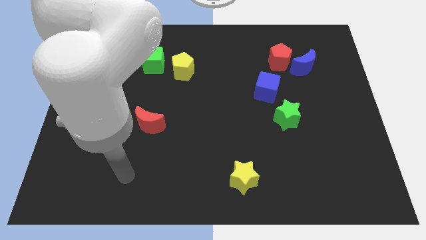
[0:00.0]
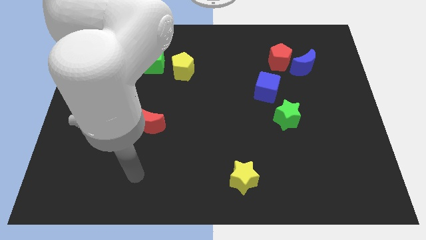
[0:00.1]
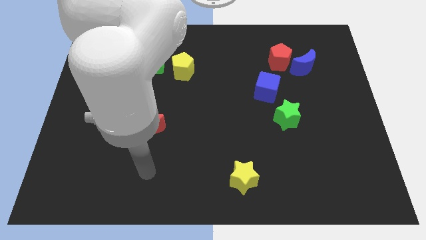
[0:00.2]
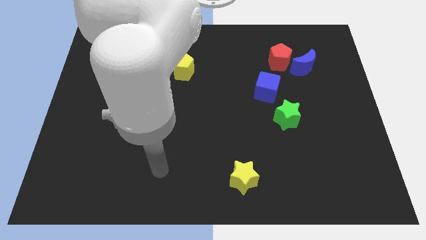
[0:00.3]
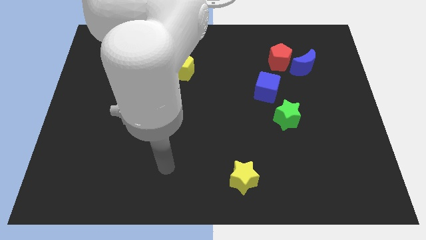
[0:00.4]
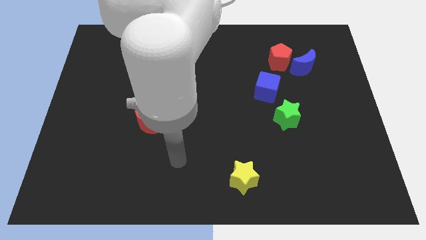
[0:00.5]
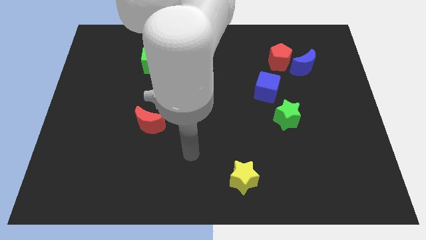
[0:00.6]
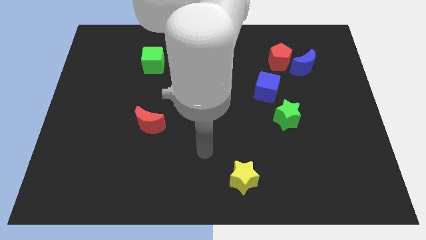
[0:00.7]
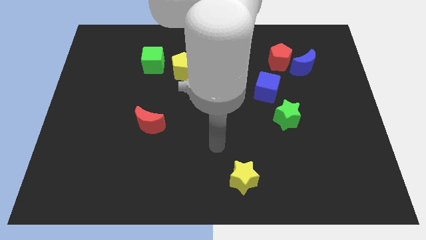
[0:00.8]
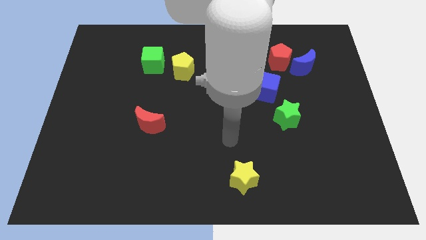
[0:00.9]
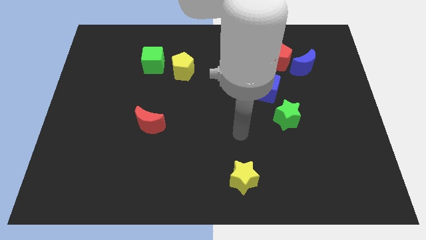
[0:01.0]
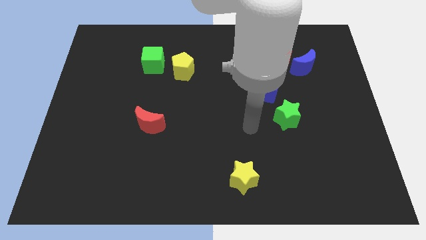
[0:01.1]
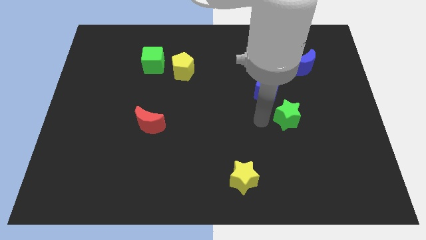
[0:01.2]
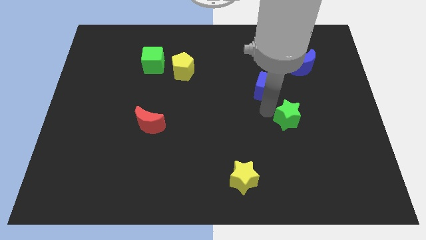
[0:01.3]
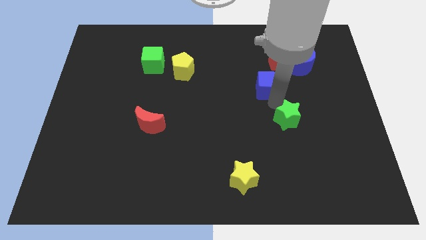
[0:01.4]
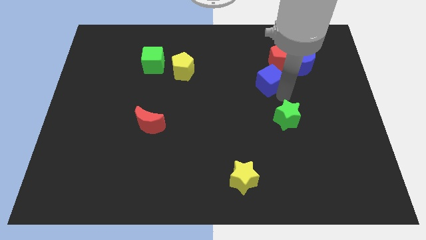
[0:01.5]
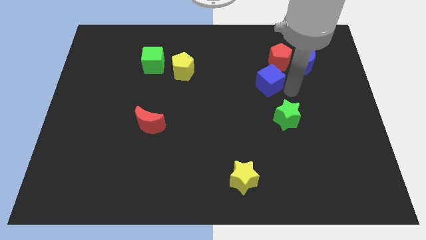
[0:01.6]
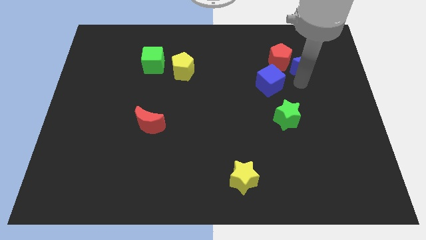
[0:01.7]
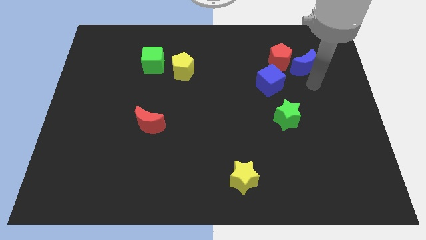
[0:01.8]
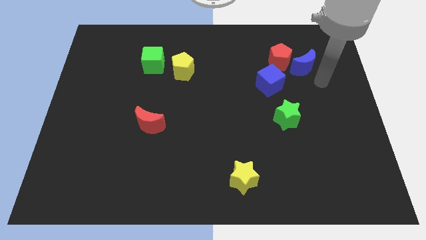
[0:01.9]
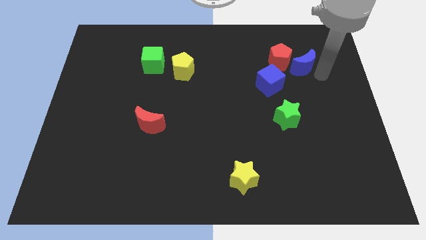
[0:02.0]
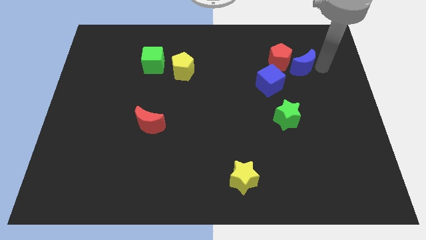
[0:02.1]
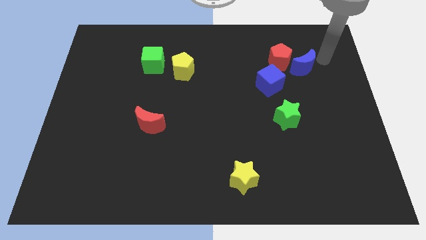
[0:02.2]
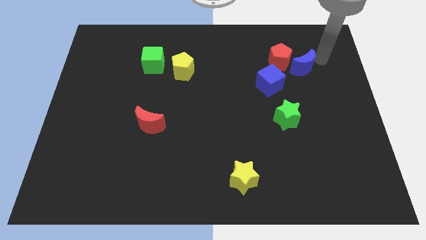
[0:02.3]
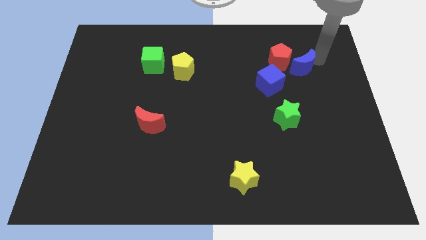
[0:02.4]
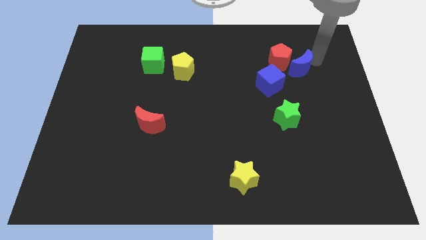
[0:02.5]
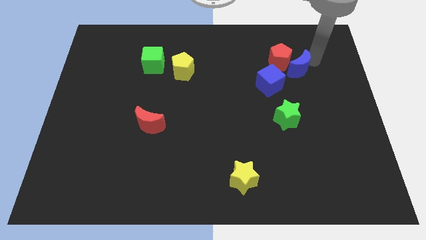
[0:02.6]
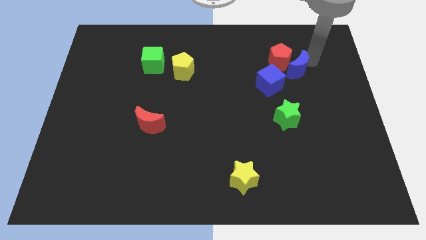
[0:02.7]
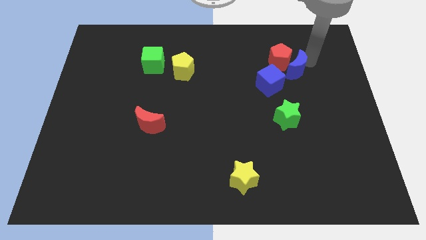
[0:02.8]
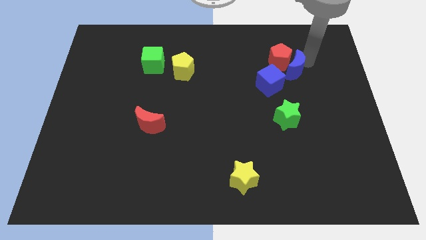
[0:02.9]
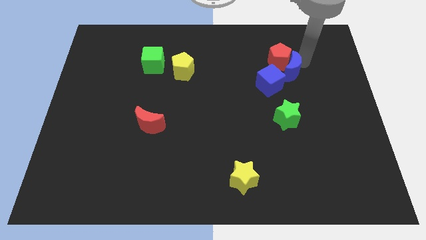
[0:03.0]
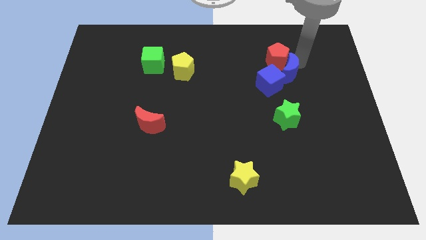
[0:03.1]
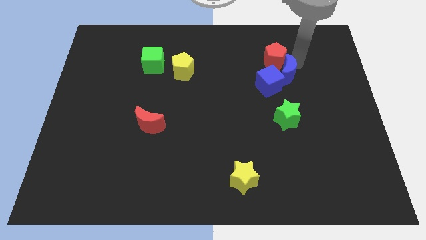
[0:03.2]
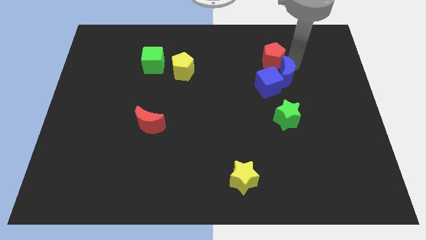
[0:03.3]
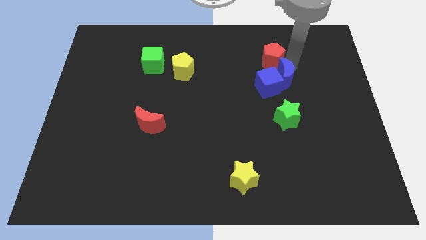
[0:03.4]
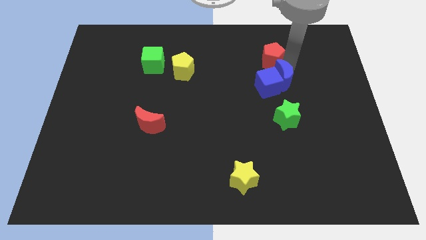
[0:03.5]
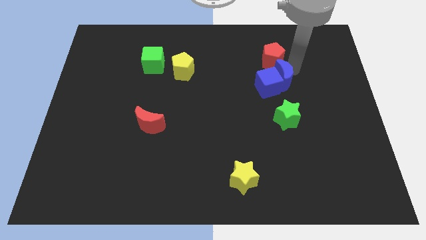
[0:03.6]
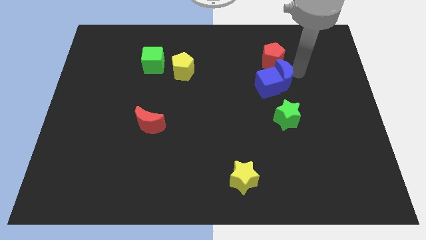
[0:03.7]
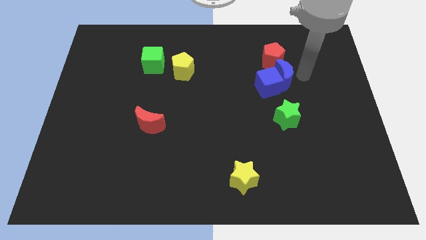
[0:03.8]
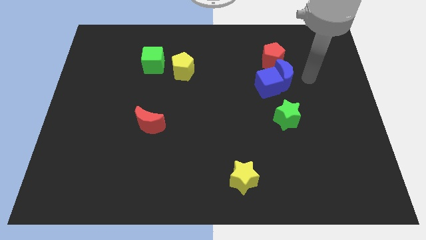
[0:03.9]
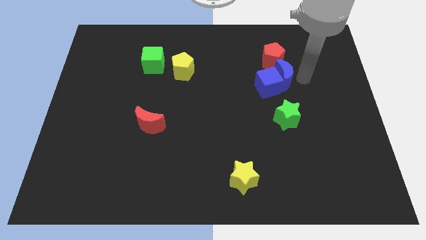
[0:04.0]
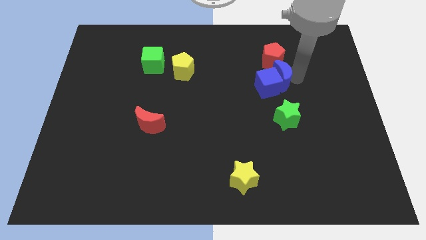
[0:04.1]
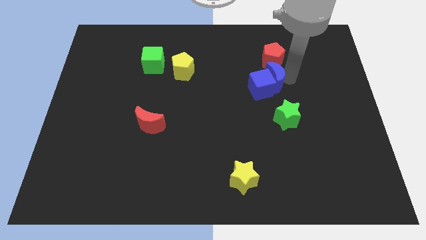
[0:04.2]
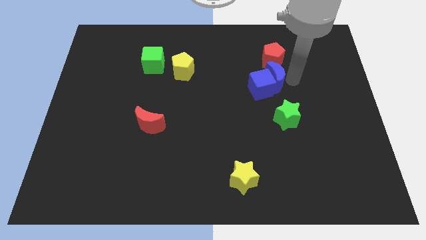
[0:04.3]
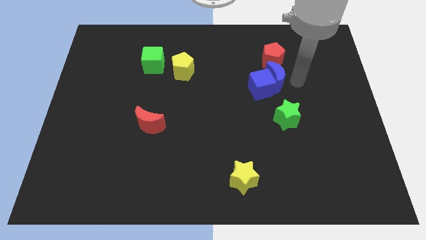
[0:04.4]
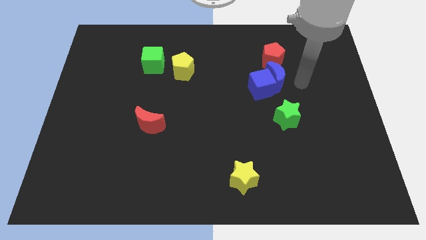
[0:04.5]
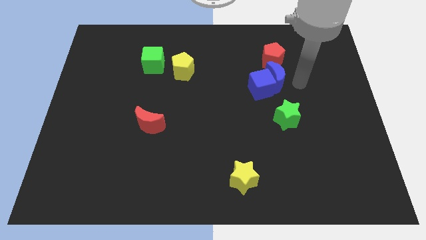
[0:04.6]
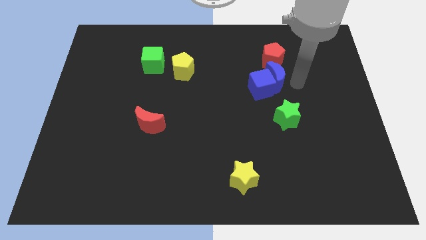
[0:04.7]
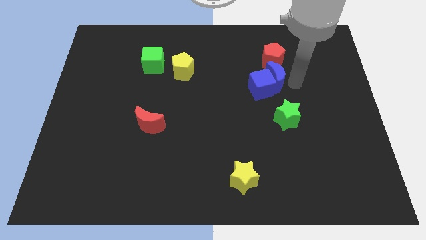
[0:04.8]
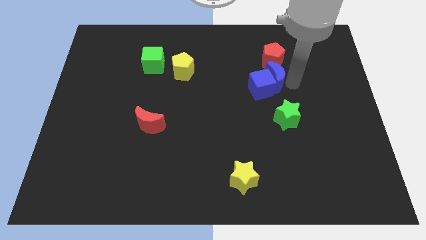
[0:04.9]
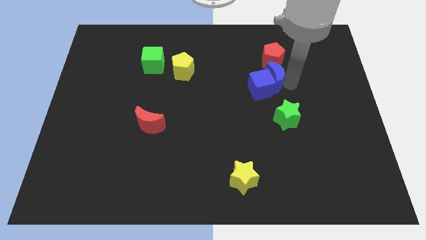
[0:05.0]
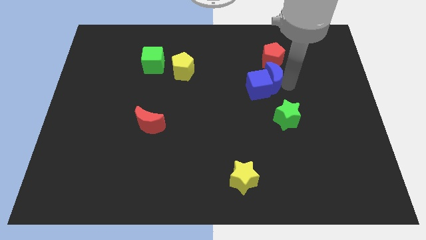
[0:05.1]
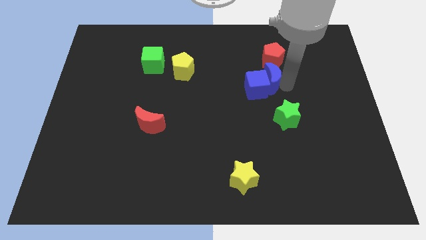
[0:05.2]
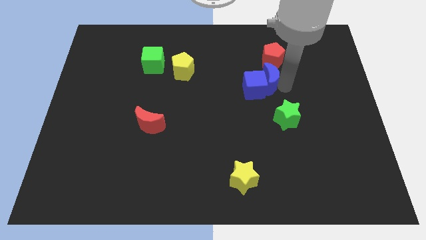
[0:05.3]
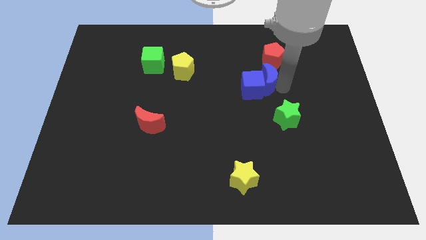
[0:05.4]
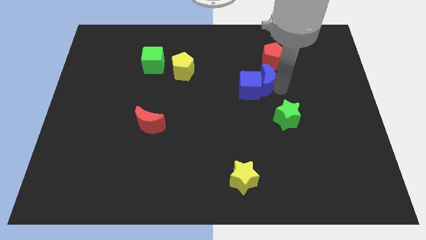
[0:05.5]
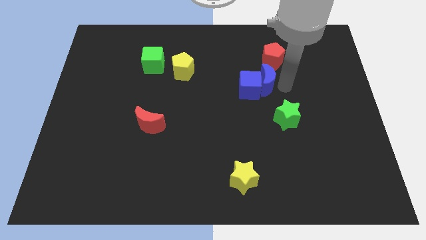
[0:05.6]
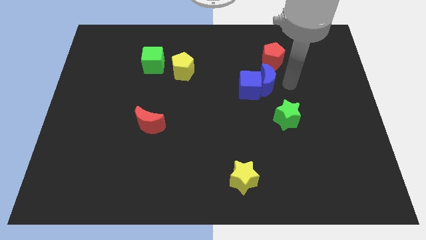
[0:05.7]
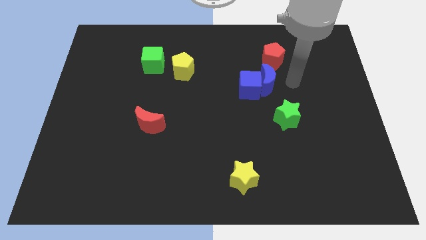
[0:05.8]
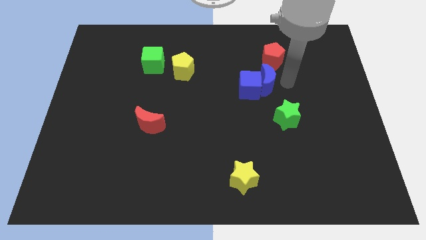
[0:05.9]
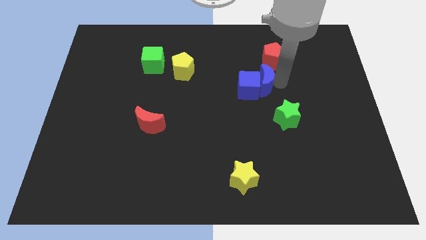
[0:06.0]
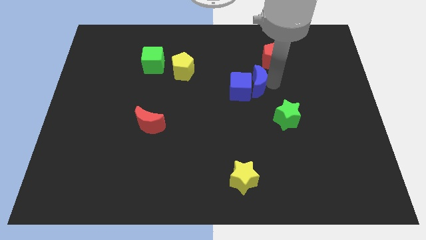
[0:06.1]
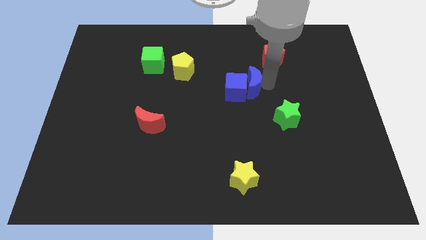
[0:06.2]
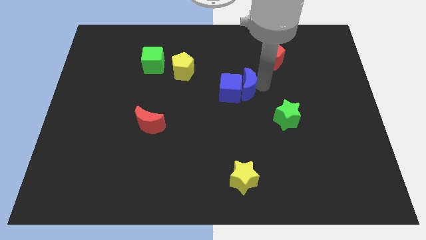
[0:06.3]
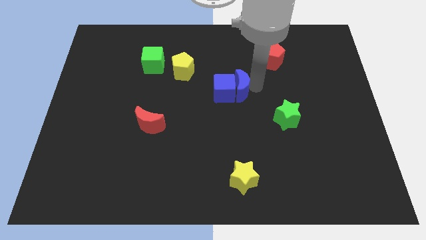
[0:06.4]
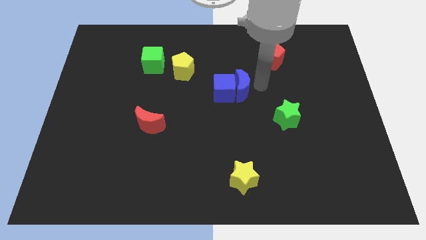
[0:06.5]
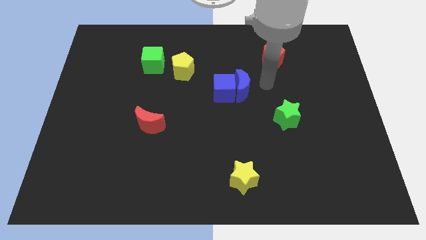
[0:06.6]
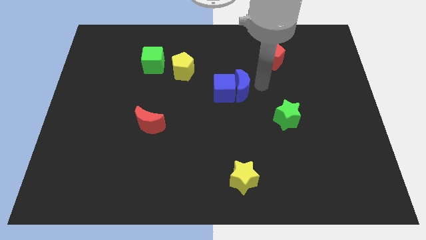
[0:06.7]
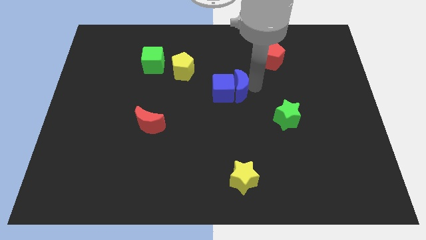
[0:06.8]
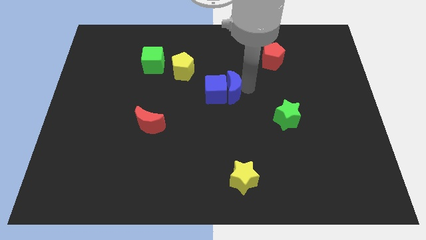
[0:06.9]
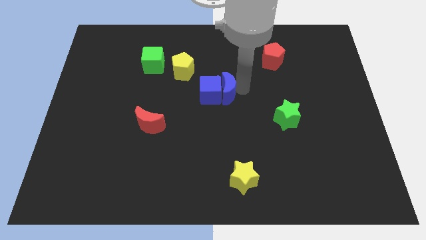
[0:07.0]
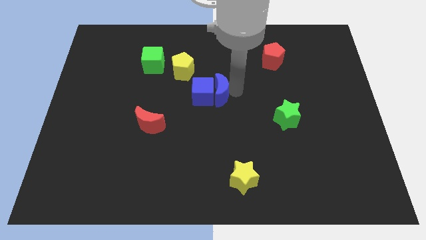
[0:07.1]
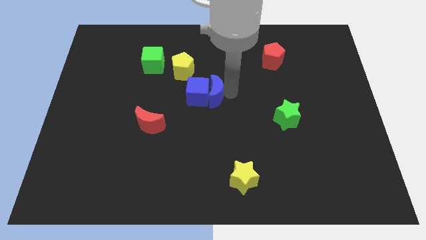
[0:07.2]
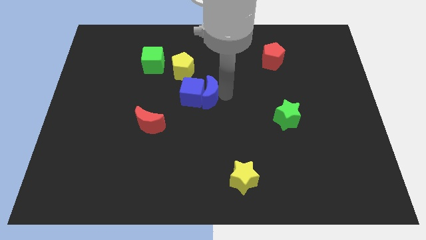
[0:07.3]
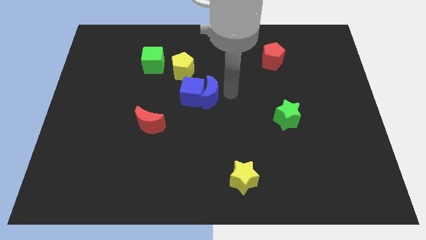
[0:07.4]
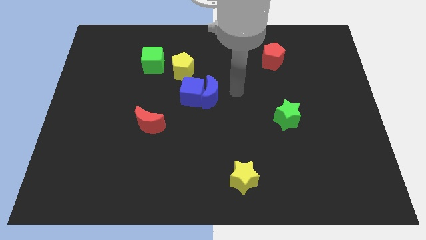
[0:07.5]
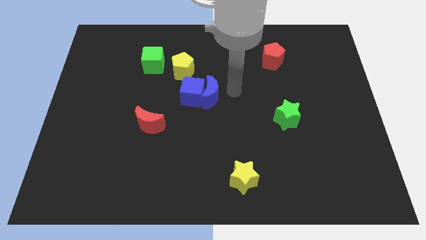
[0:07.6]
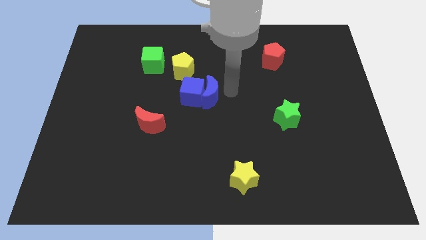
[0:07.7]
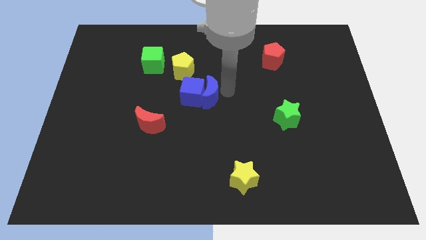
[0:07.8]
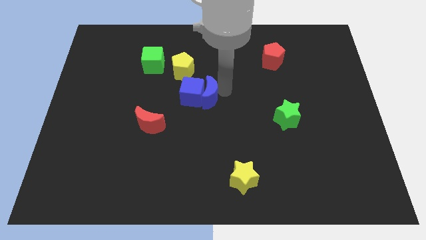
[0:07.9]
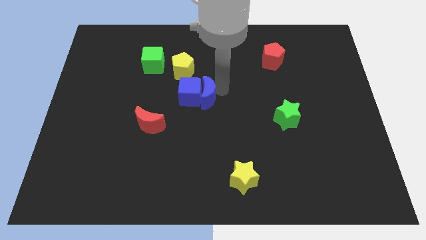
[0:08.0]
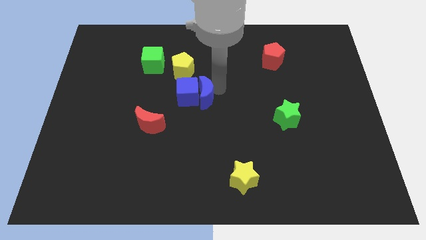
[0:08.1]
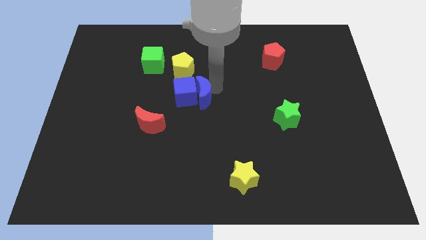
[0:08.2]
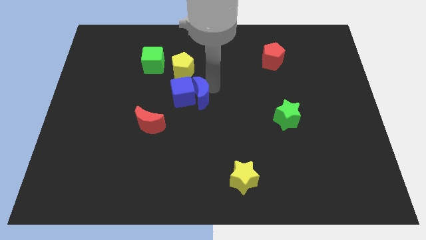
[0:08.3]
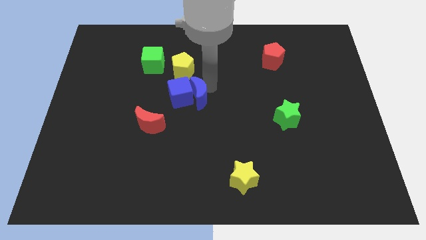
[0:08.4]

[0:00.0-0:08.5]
put the blue moon to the bottom side of the yellow pentagon
